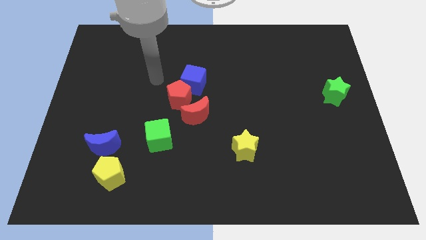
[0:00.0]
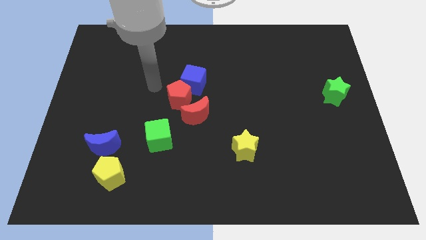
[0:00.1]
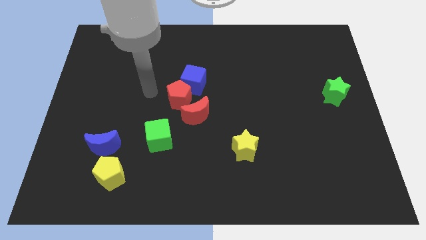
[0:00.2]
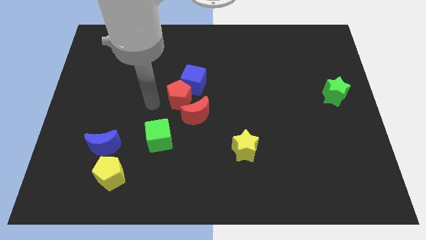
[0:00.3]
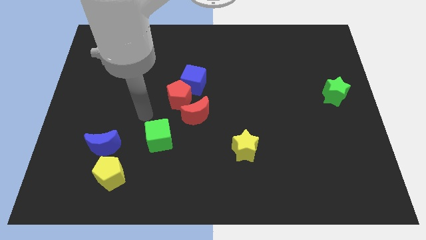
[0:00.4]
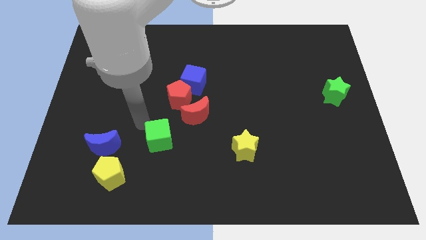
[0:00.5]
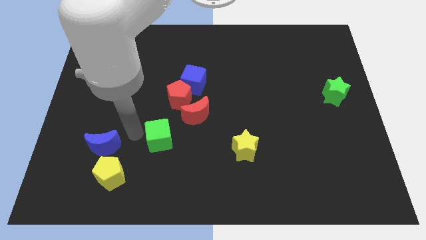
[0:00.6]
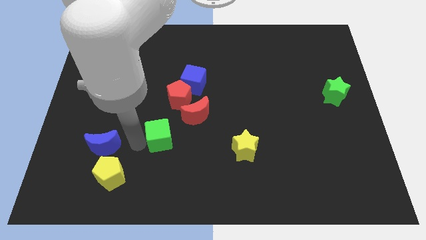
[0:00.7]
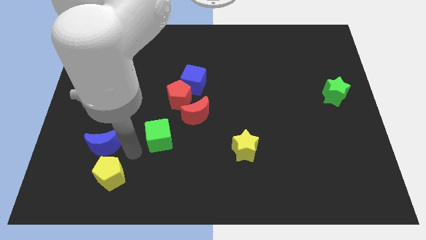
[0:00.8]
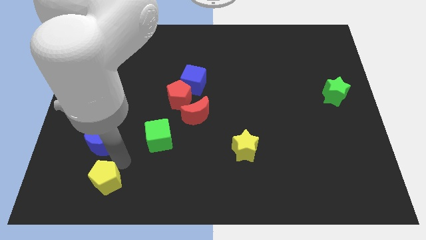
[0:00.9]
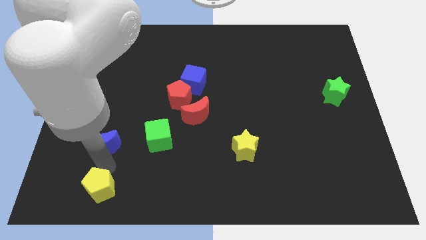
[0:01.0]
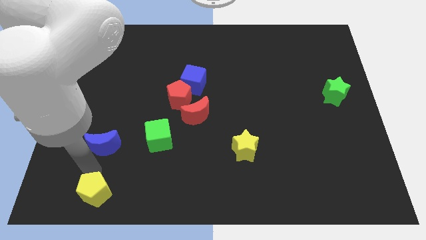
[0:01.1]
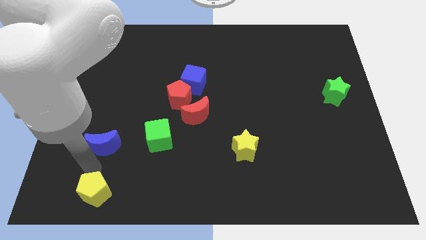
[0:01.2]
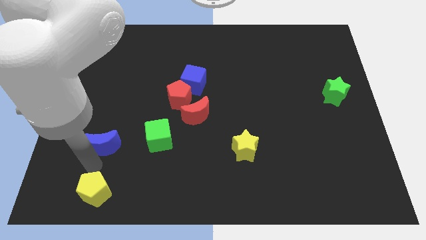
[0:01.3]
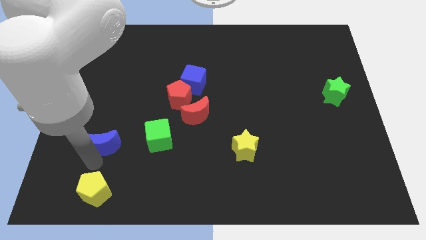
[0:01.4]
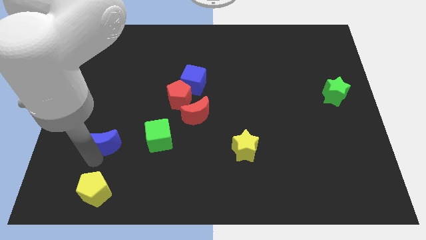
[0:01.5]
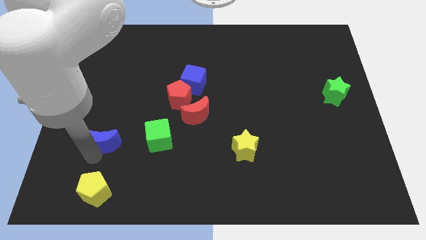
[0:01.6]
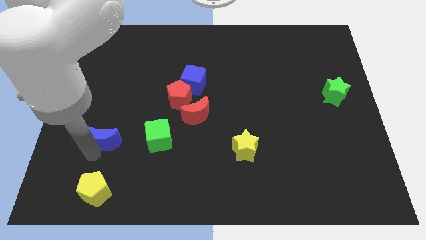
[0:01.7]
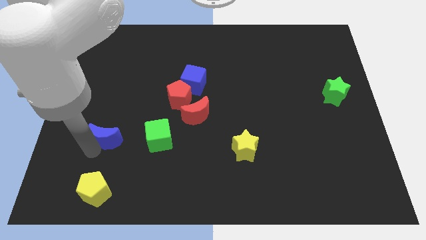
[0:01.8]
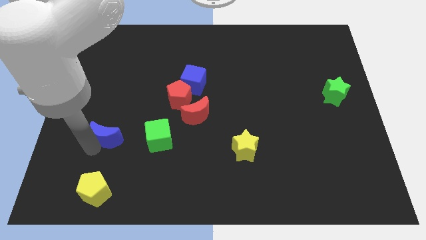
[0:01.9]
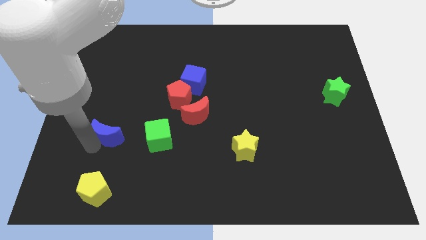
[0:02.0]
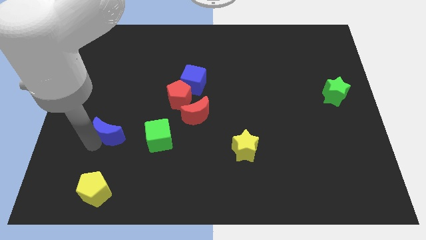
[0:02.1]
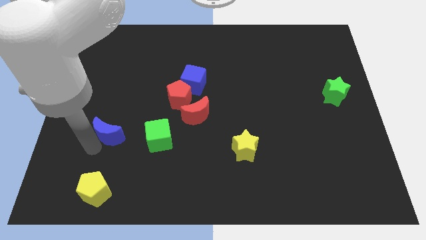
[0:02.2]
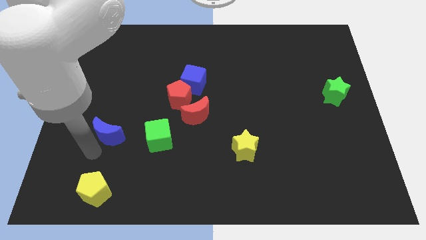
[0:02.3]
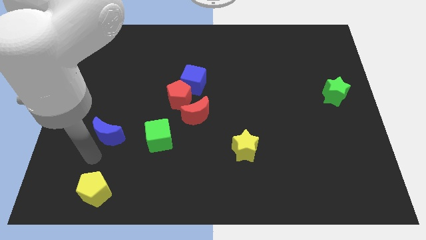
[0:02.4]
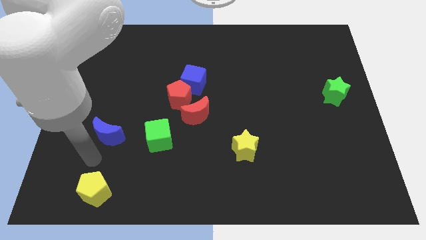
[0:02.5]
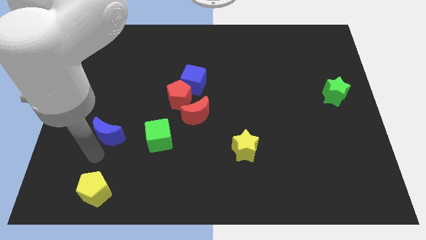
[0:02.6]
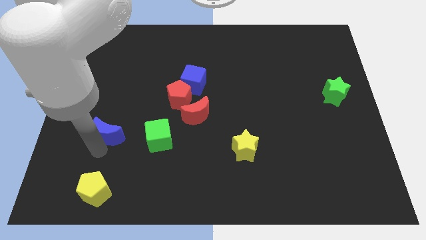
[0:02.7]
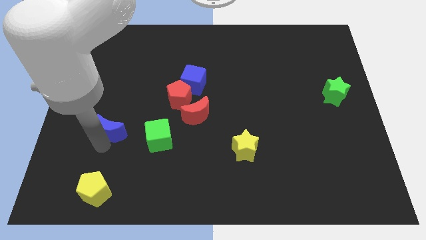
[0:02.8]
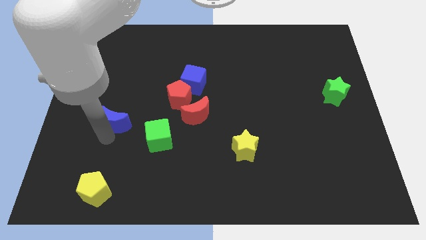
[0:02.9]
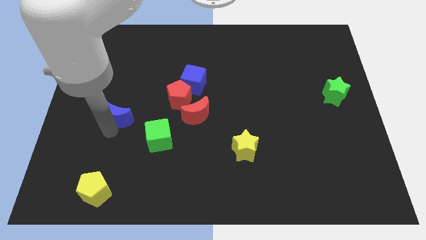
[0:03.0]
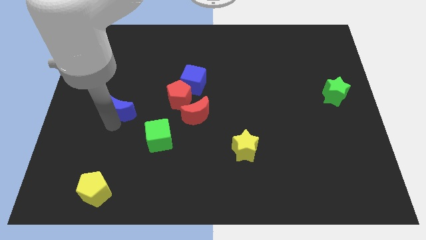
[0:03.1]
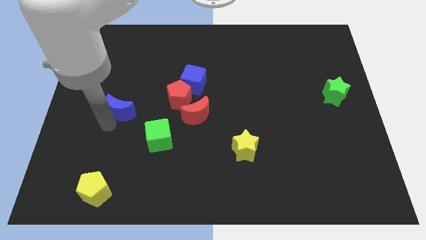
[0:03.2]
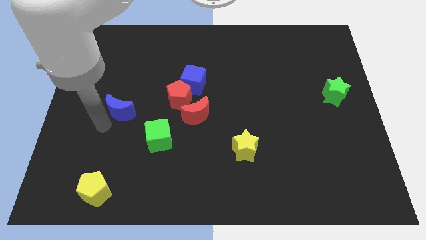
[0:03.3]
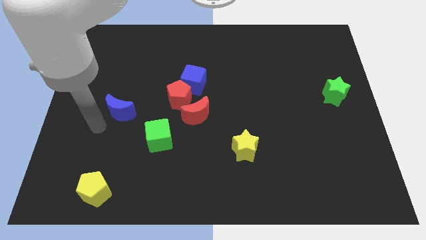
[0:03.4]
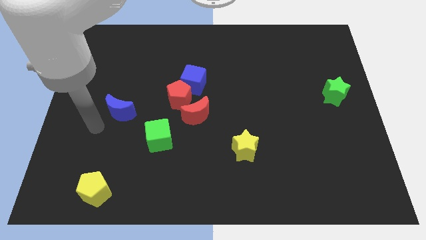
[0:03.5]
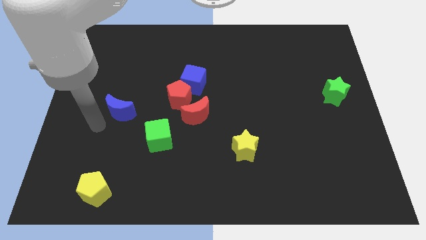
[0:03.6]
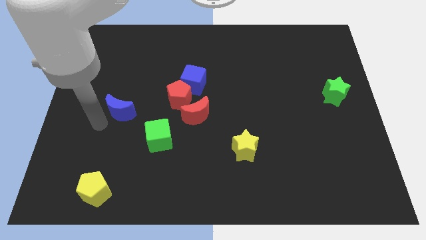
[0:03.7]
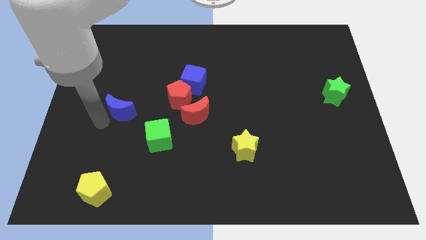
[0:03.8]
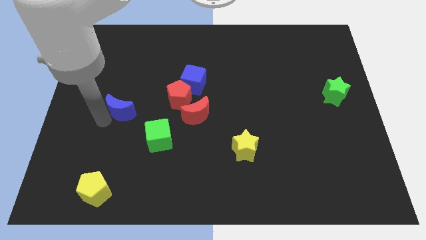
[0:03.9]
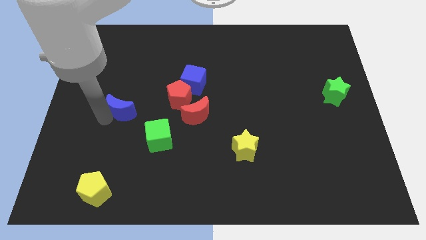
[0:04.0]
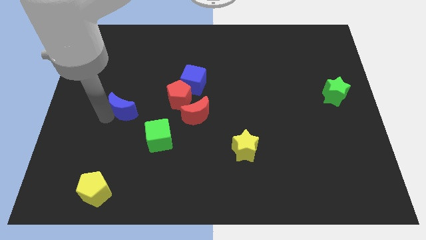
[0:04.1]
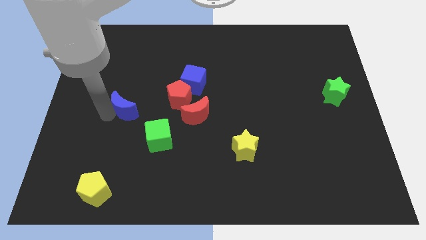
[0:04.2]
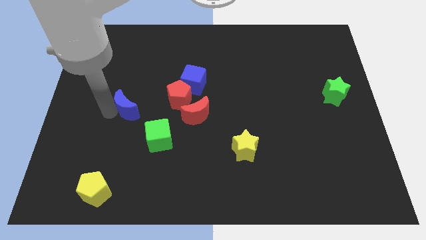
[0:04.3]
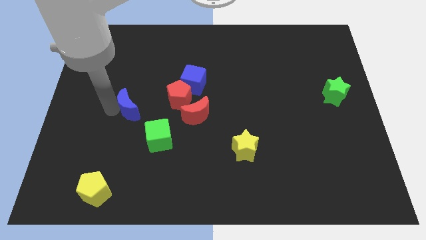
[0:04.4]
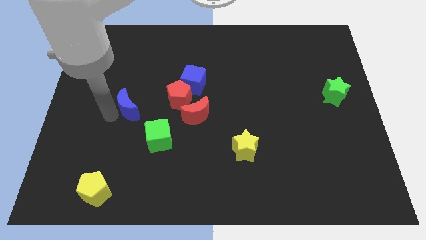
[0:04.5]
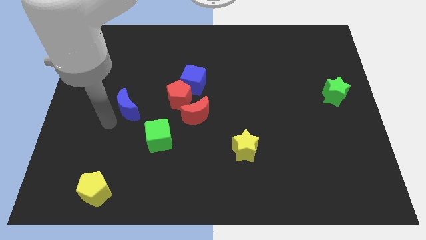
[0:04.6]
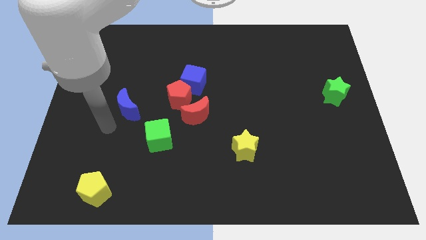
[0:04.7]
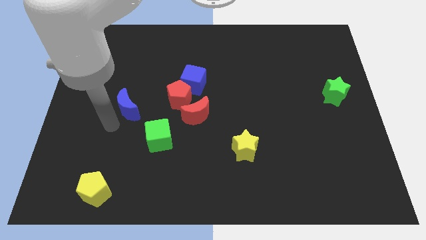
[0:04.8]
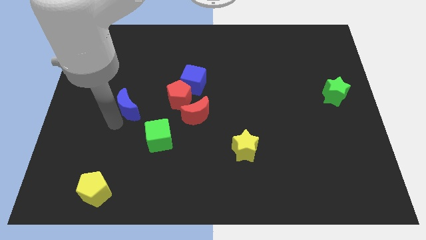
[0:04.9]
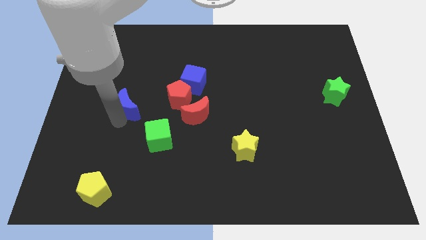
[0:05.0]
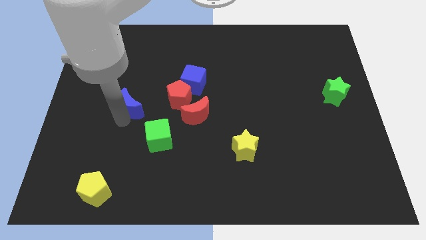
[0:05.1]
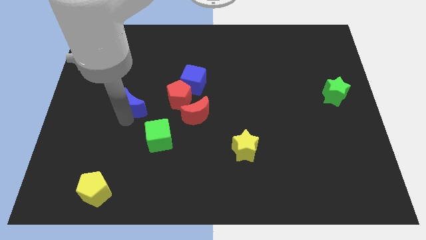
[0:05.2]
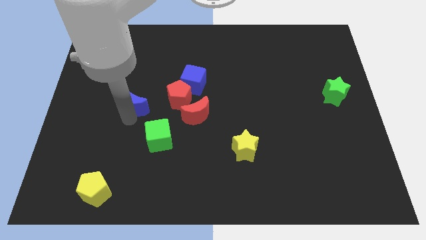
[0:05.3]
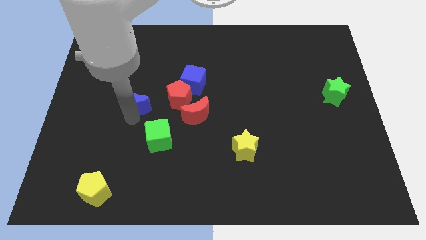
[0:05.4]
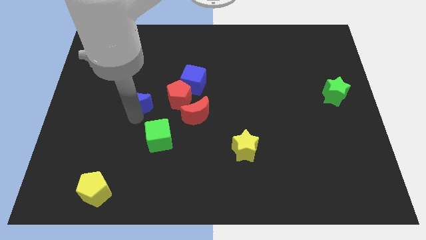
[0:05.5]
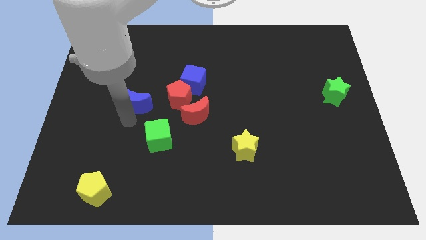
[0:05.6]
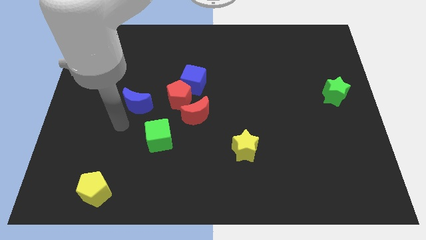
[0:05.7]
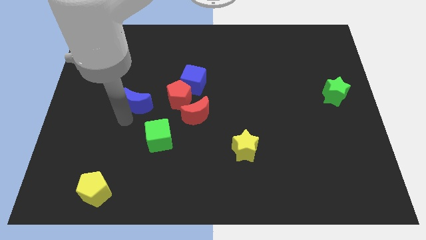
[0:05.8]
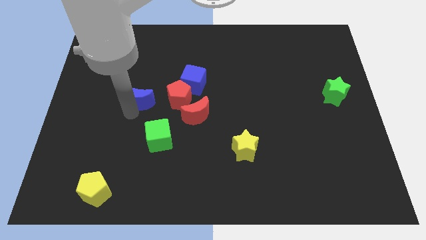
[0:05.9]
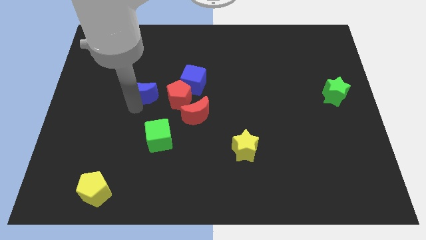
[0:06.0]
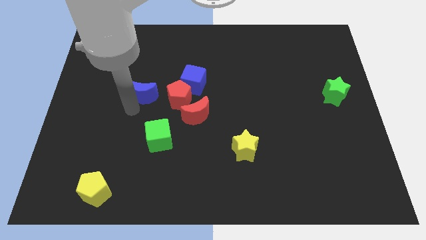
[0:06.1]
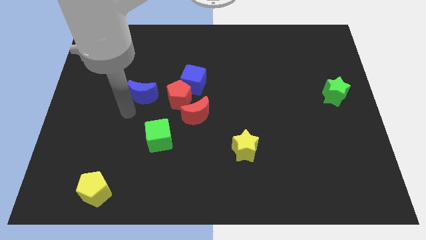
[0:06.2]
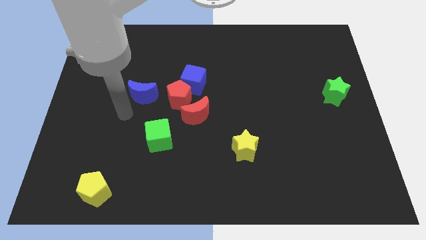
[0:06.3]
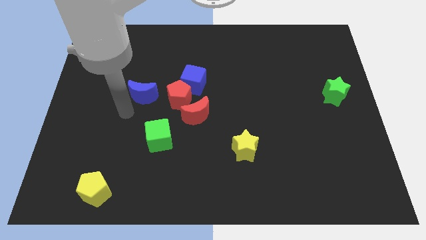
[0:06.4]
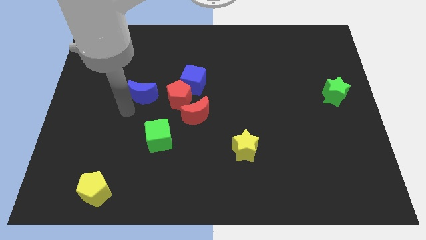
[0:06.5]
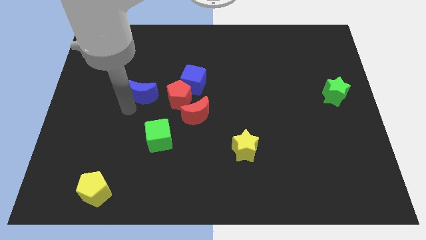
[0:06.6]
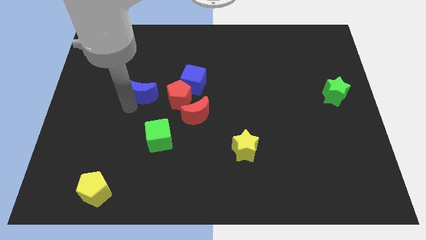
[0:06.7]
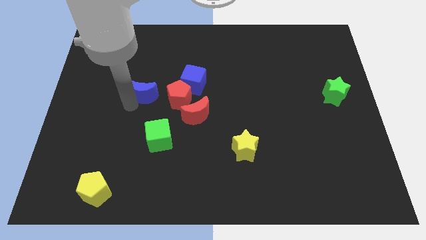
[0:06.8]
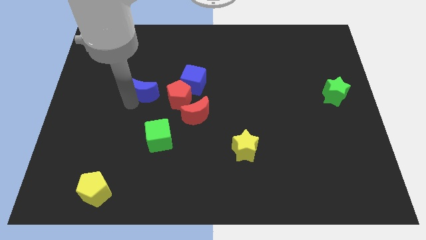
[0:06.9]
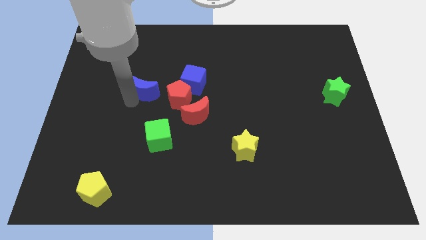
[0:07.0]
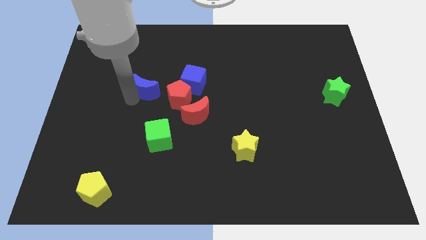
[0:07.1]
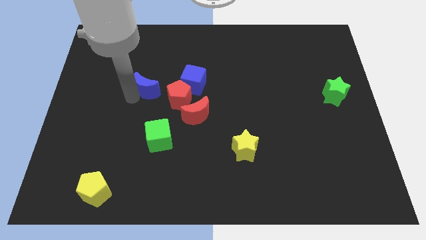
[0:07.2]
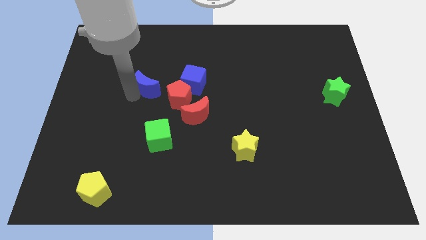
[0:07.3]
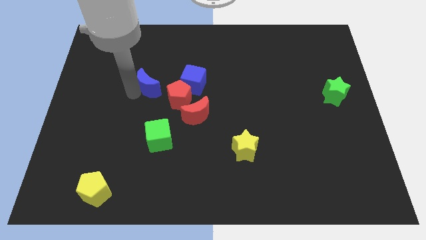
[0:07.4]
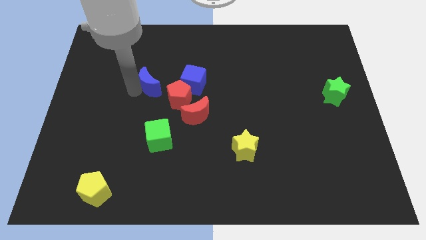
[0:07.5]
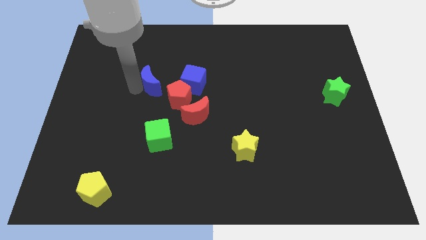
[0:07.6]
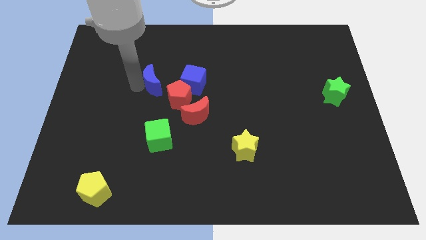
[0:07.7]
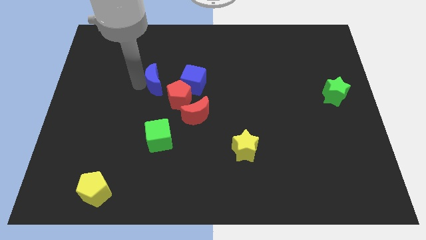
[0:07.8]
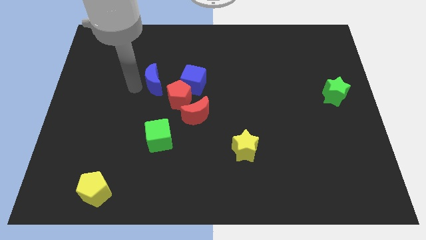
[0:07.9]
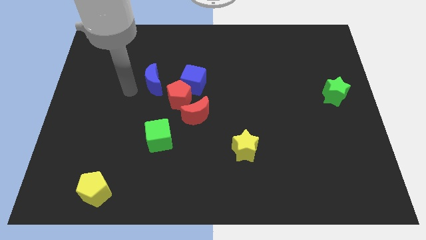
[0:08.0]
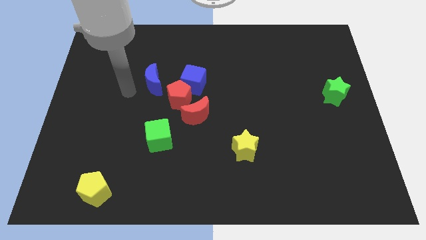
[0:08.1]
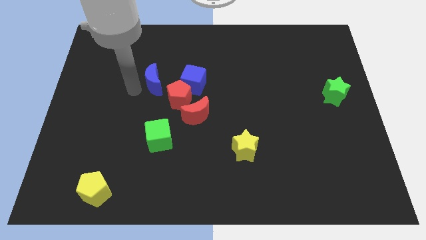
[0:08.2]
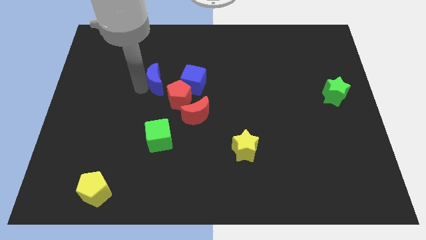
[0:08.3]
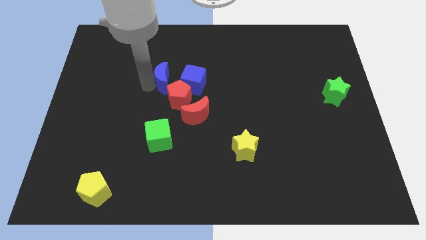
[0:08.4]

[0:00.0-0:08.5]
push the blue moon up and right
